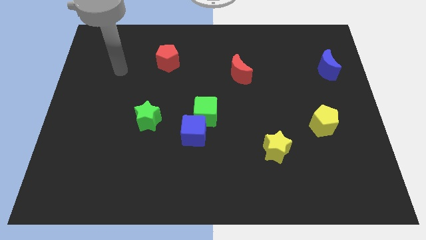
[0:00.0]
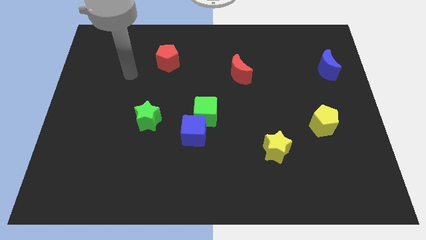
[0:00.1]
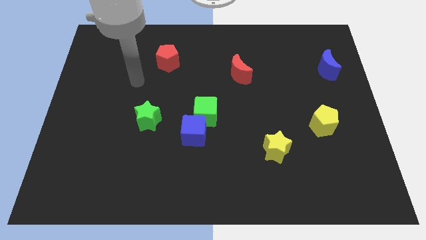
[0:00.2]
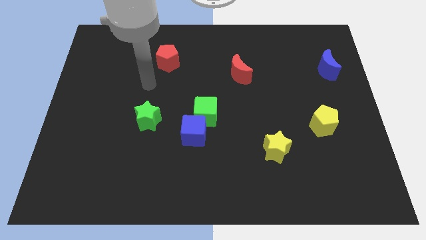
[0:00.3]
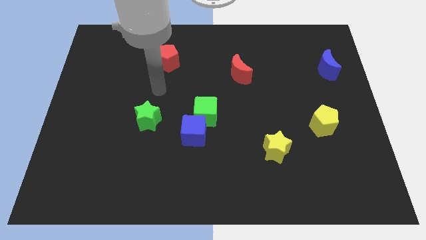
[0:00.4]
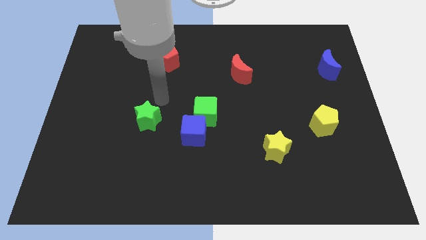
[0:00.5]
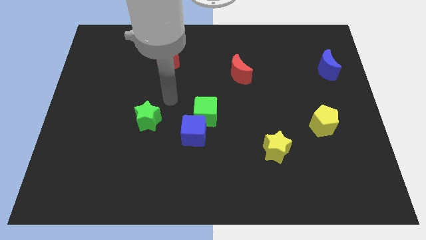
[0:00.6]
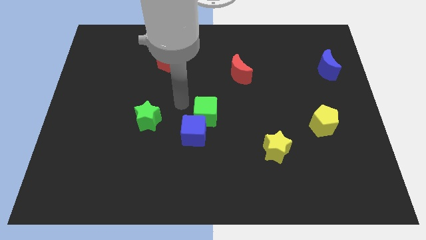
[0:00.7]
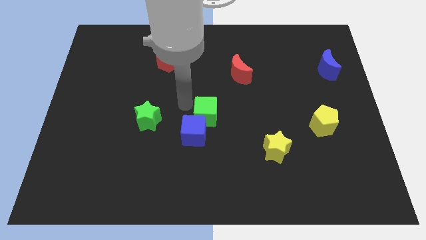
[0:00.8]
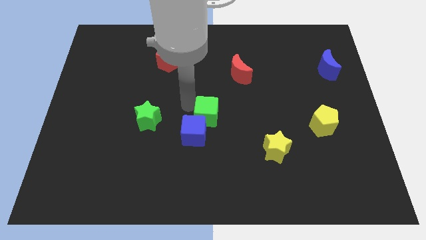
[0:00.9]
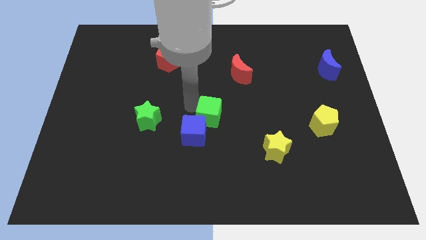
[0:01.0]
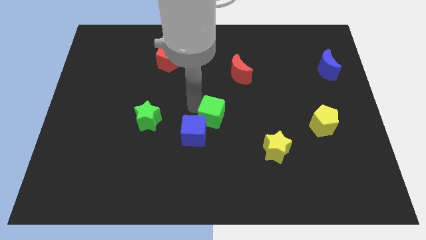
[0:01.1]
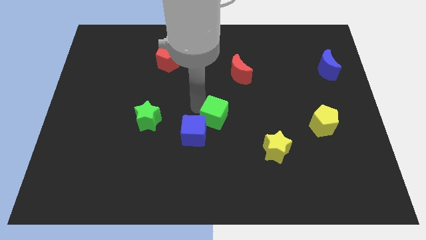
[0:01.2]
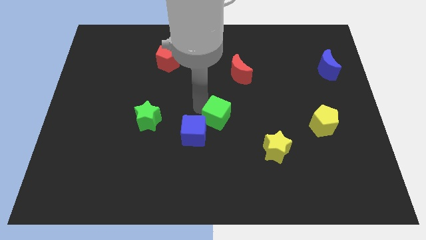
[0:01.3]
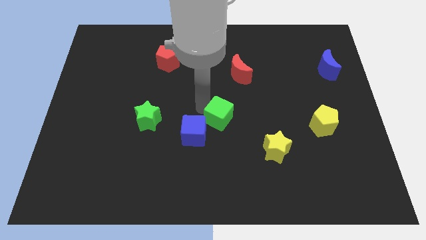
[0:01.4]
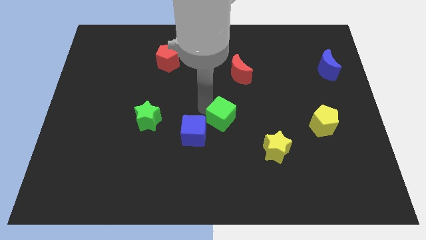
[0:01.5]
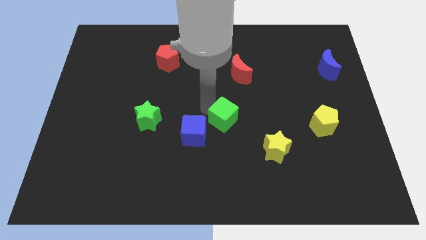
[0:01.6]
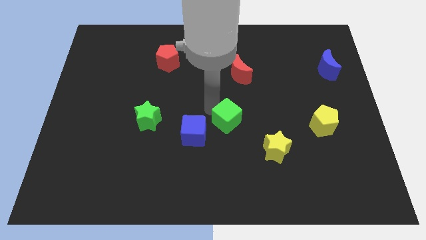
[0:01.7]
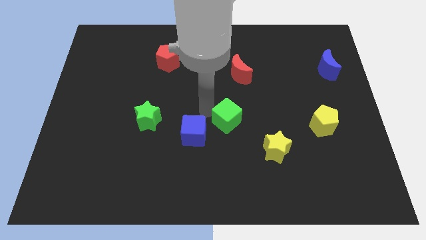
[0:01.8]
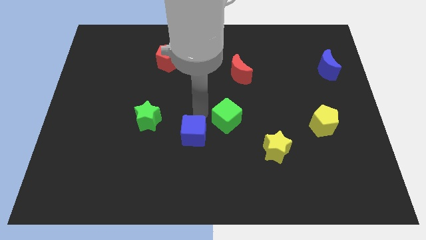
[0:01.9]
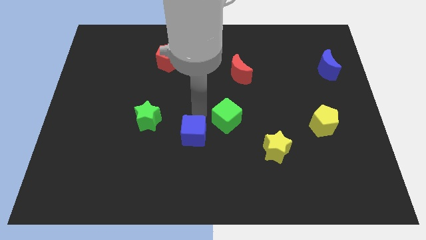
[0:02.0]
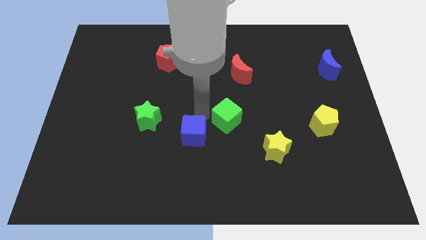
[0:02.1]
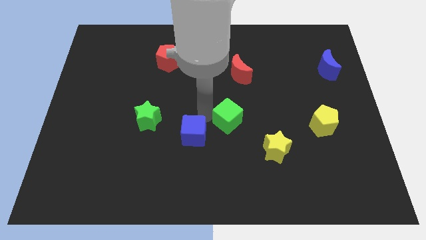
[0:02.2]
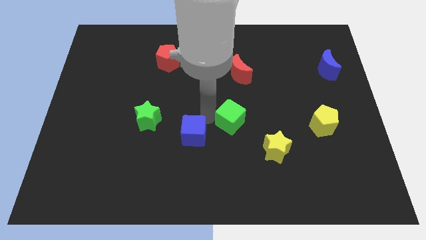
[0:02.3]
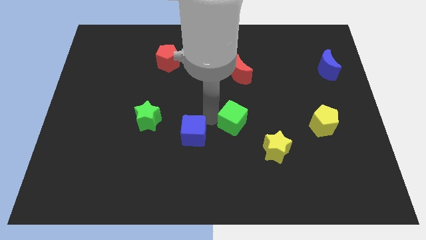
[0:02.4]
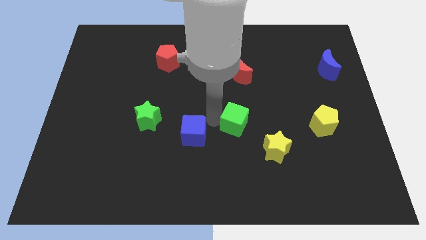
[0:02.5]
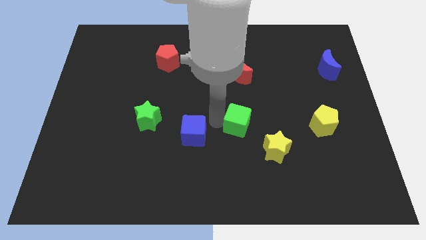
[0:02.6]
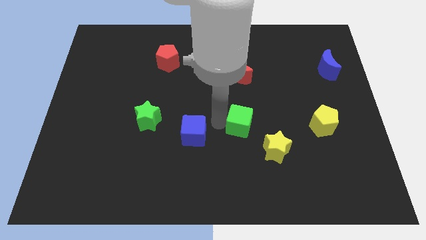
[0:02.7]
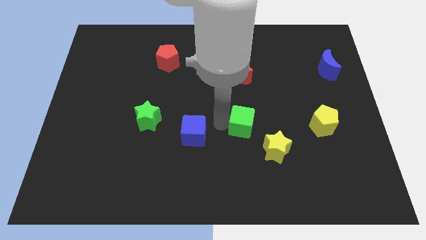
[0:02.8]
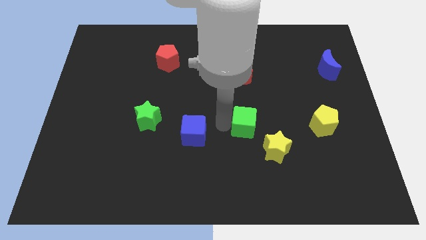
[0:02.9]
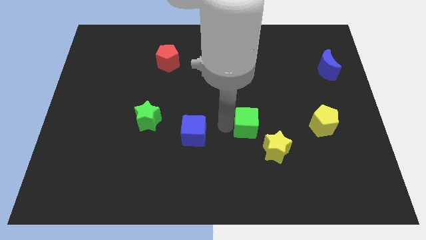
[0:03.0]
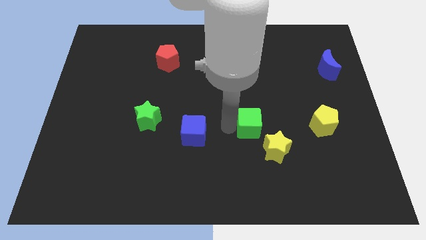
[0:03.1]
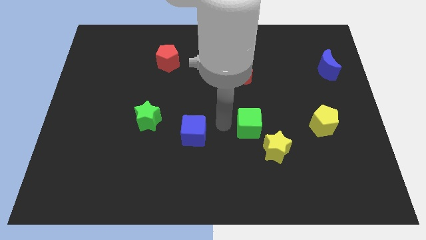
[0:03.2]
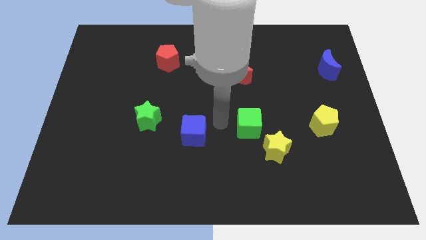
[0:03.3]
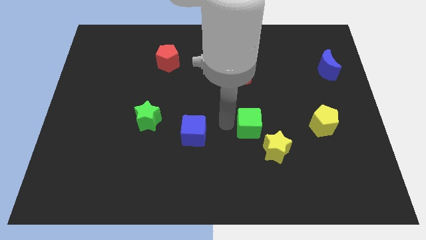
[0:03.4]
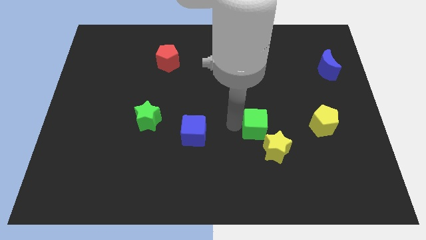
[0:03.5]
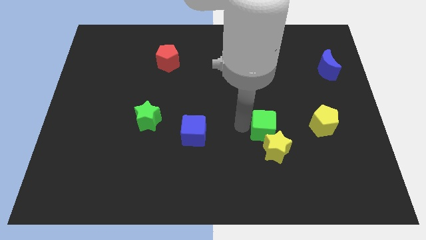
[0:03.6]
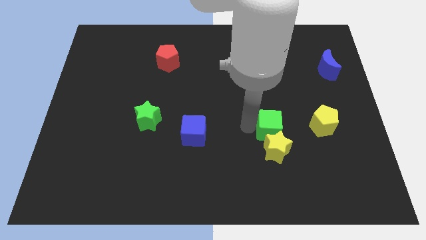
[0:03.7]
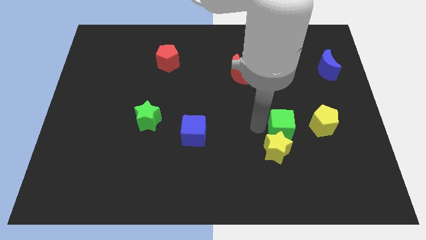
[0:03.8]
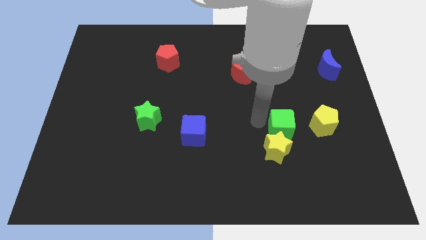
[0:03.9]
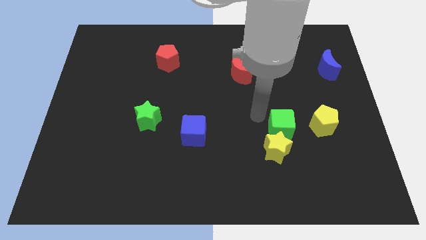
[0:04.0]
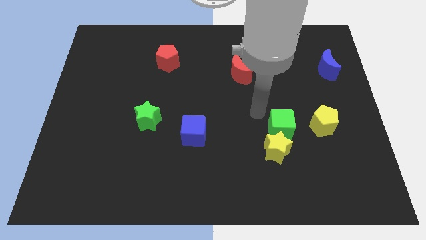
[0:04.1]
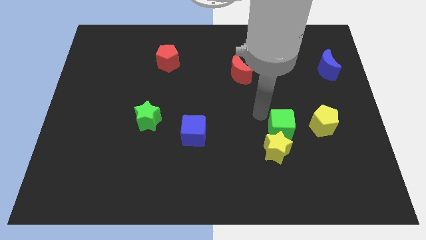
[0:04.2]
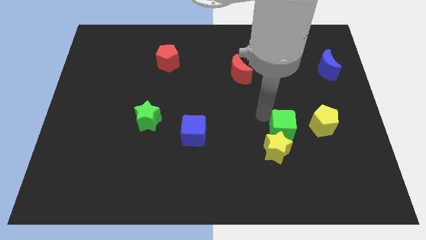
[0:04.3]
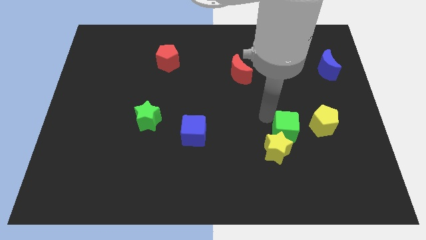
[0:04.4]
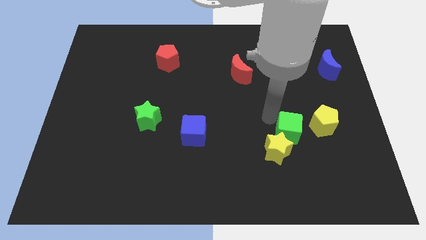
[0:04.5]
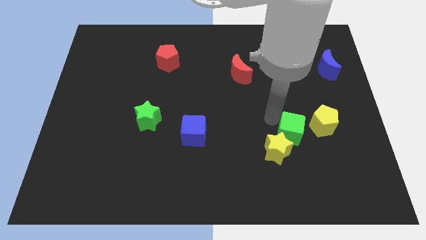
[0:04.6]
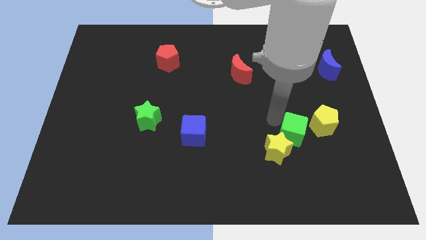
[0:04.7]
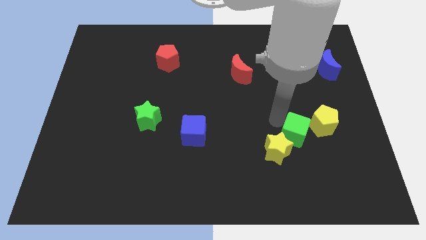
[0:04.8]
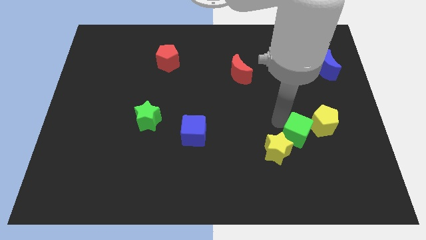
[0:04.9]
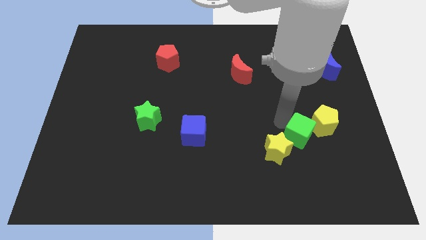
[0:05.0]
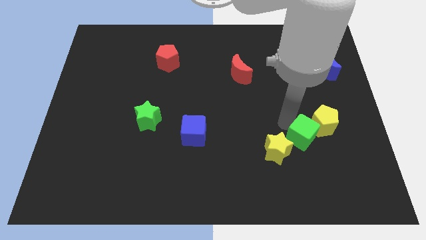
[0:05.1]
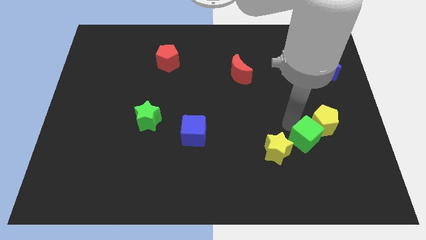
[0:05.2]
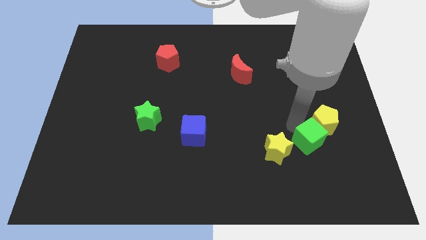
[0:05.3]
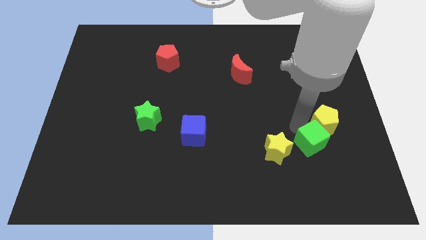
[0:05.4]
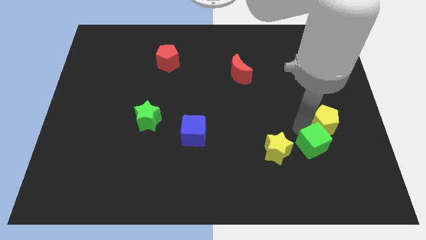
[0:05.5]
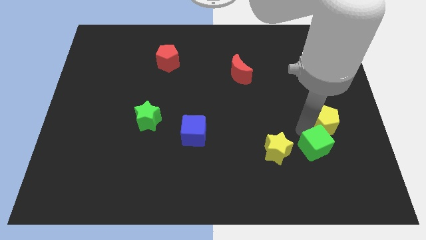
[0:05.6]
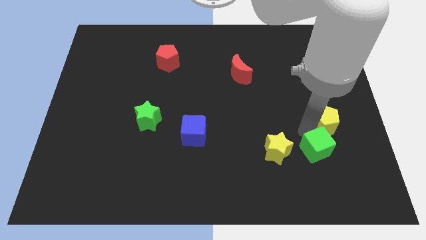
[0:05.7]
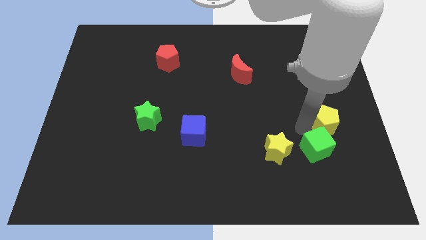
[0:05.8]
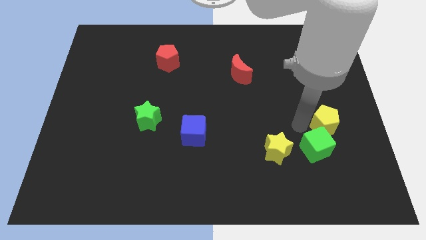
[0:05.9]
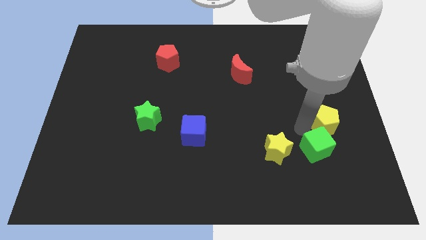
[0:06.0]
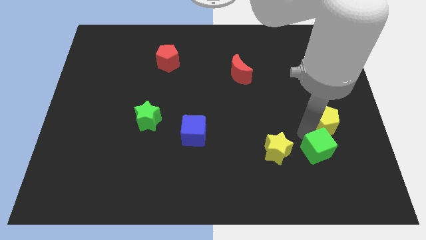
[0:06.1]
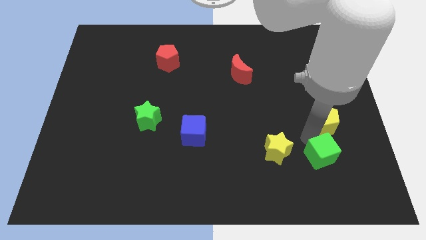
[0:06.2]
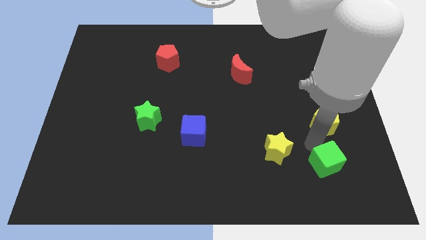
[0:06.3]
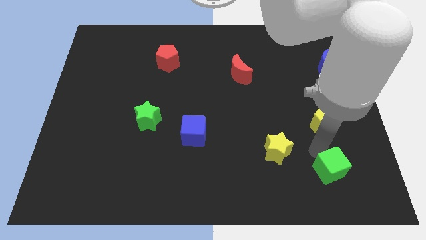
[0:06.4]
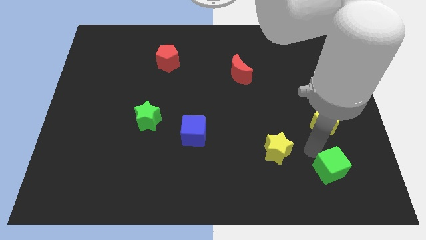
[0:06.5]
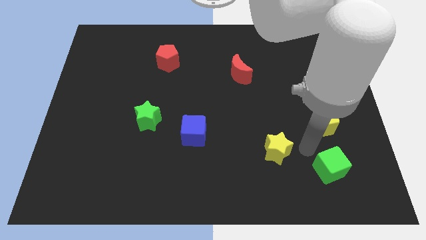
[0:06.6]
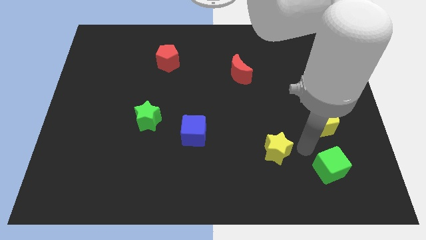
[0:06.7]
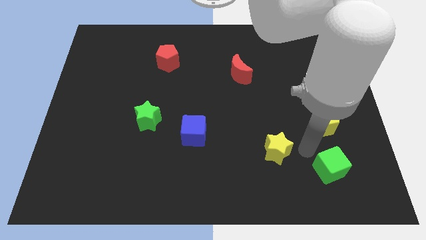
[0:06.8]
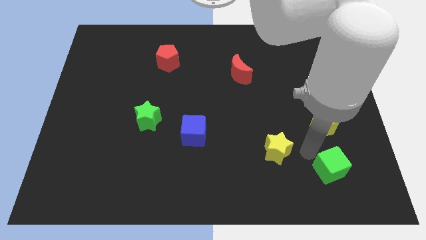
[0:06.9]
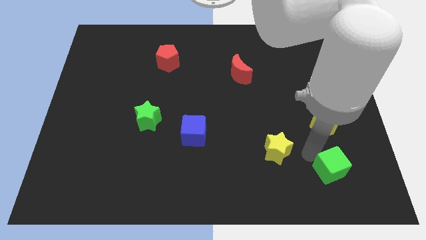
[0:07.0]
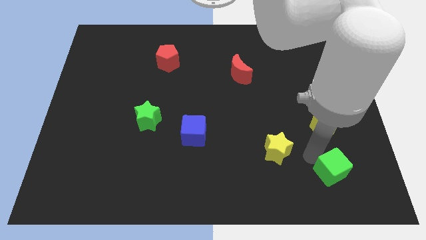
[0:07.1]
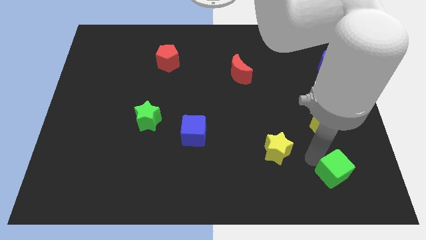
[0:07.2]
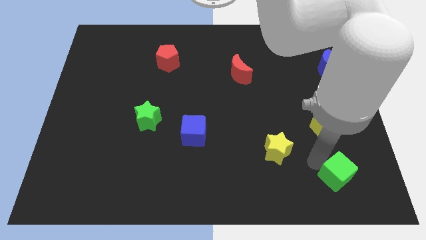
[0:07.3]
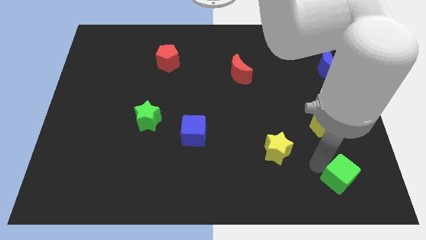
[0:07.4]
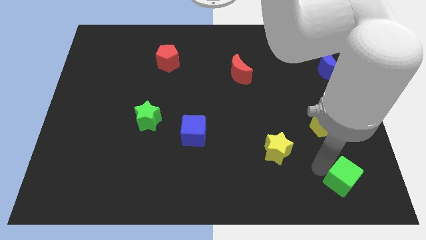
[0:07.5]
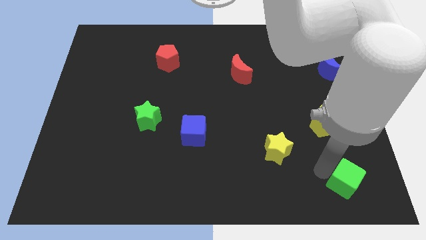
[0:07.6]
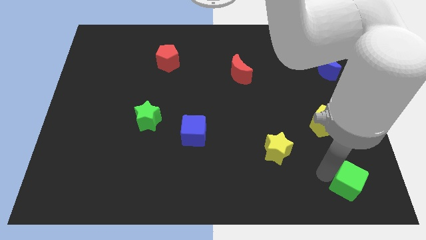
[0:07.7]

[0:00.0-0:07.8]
move the green cube to the bottom right corner
